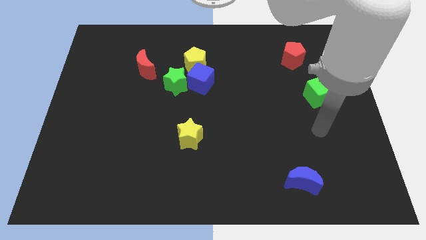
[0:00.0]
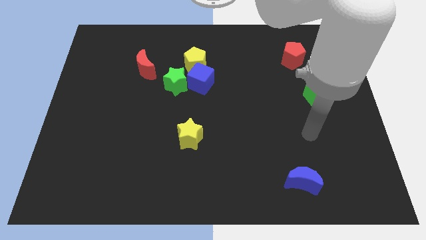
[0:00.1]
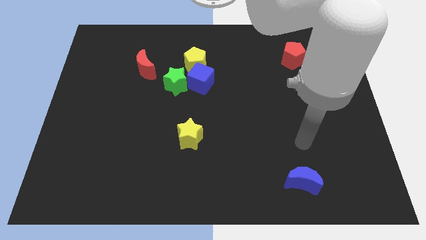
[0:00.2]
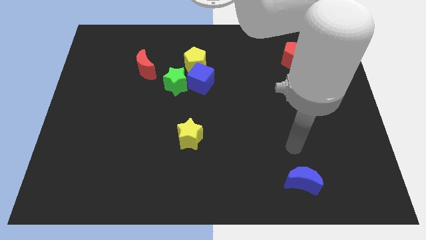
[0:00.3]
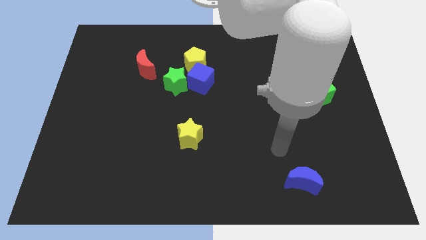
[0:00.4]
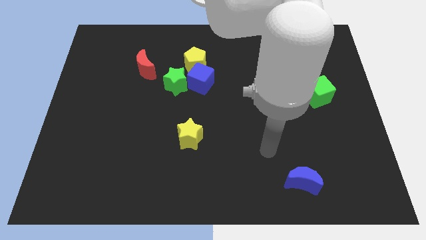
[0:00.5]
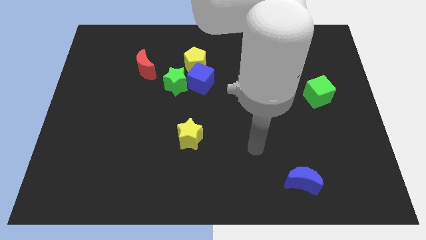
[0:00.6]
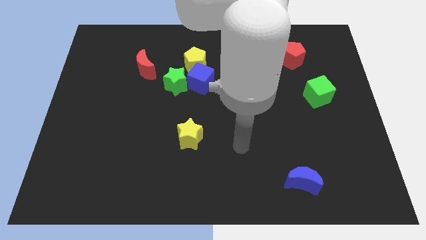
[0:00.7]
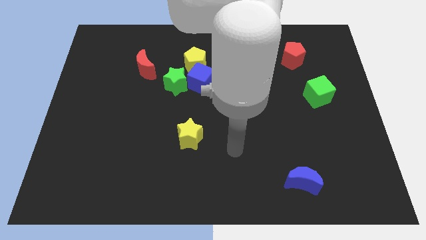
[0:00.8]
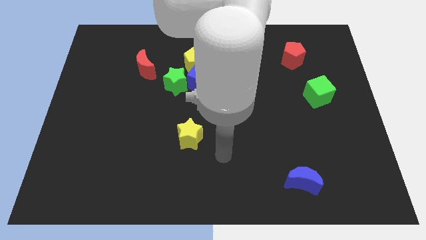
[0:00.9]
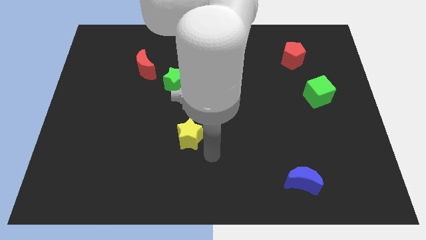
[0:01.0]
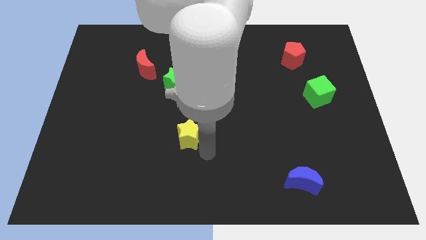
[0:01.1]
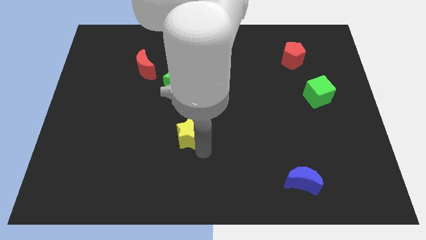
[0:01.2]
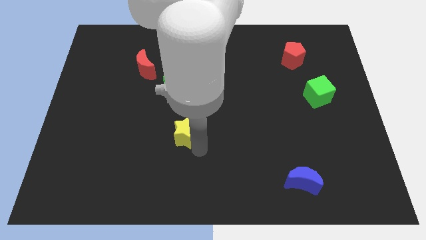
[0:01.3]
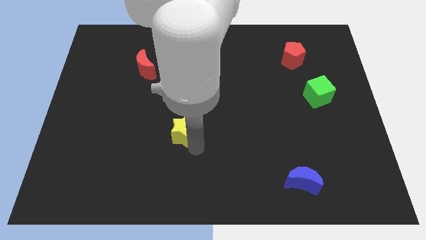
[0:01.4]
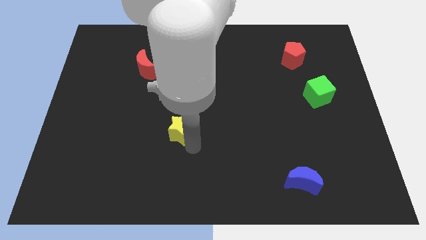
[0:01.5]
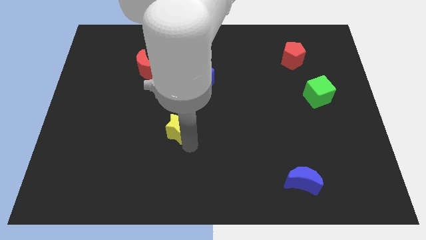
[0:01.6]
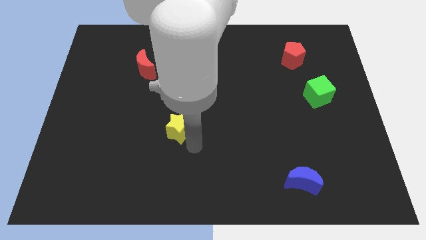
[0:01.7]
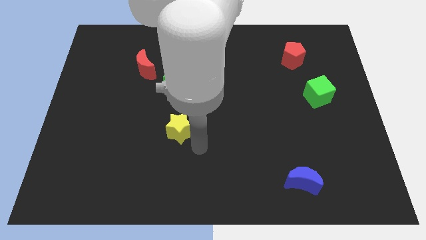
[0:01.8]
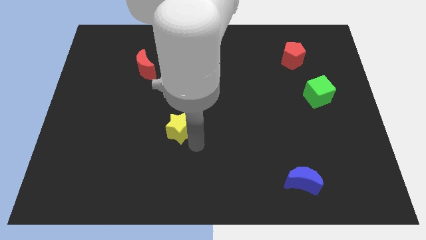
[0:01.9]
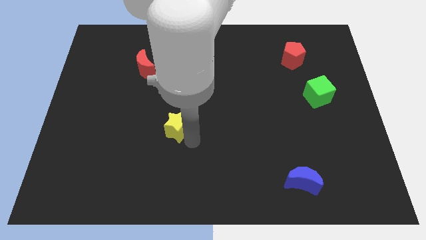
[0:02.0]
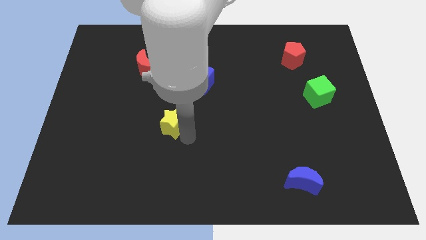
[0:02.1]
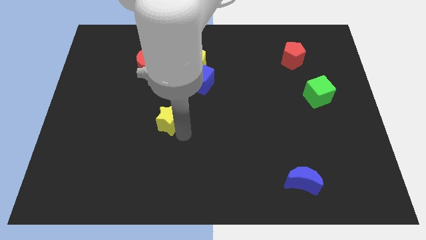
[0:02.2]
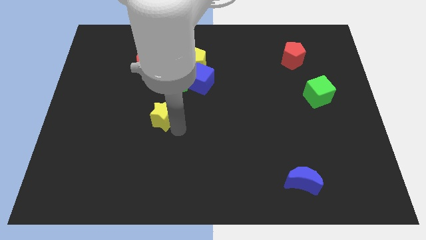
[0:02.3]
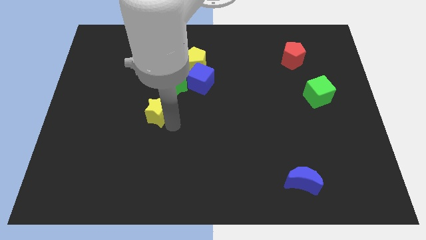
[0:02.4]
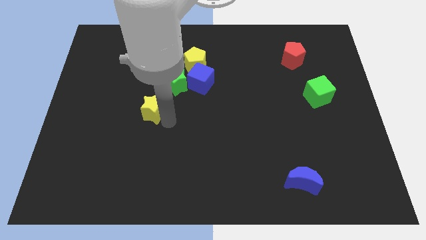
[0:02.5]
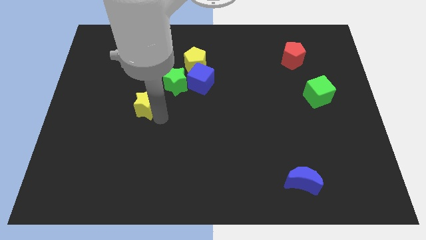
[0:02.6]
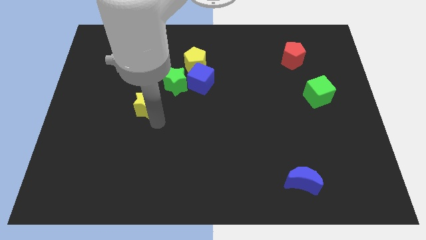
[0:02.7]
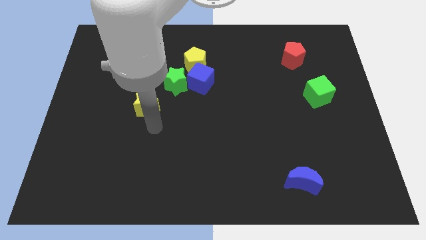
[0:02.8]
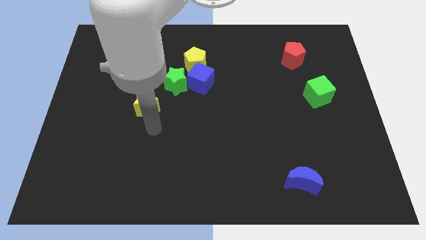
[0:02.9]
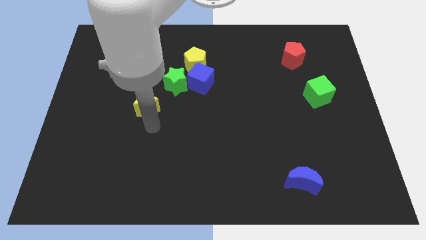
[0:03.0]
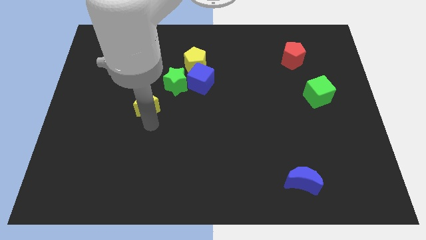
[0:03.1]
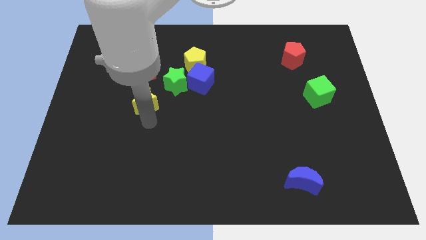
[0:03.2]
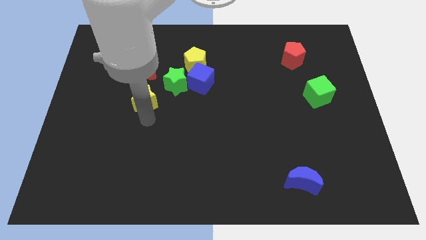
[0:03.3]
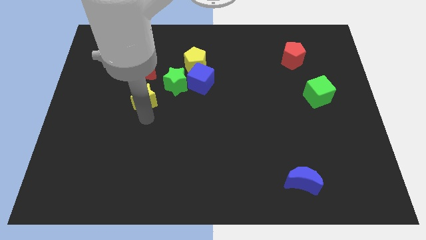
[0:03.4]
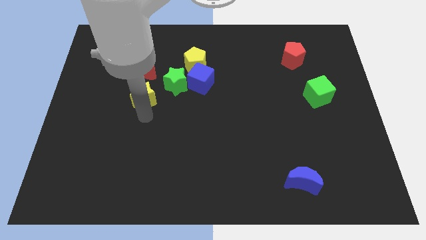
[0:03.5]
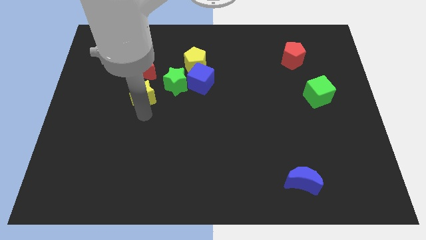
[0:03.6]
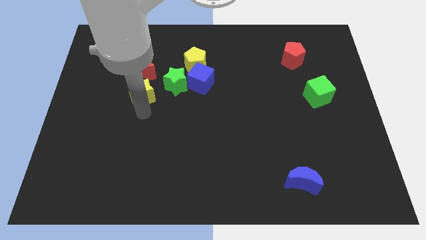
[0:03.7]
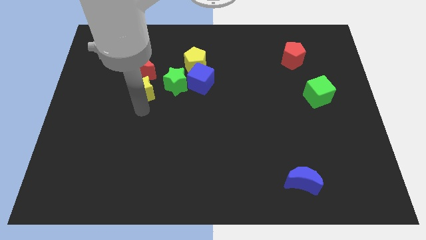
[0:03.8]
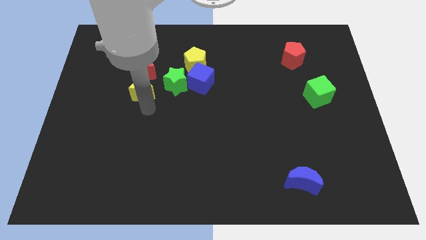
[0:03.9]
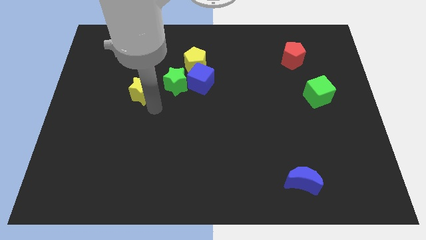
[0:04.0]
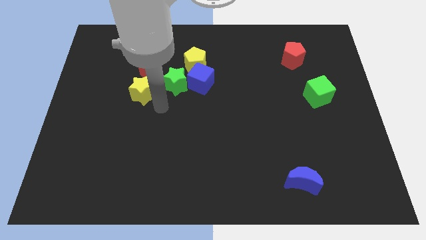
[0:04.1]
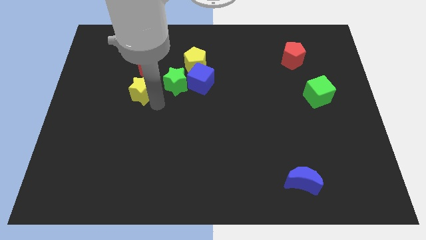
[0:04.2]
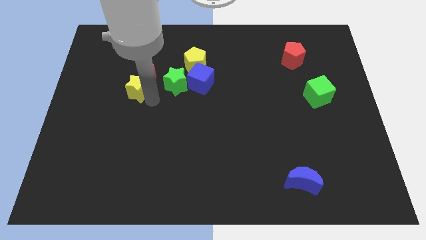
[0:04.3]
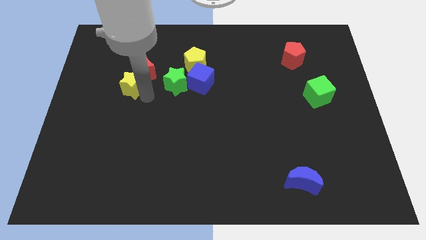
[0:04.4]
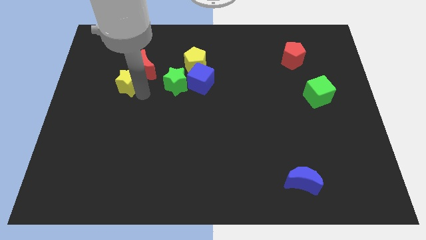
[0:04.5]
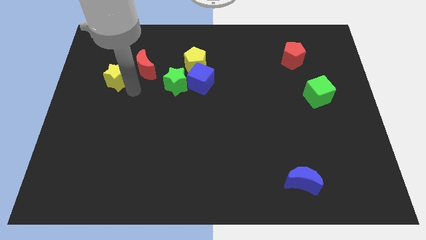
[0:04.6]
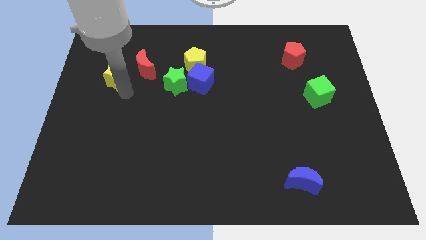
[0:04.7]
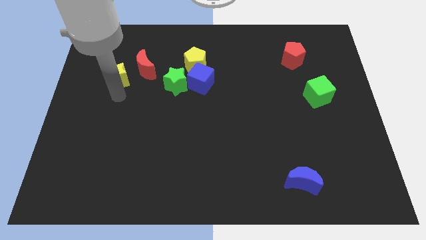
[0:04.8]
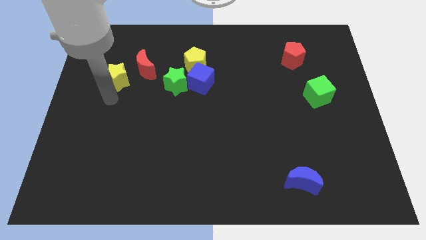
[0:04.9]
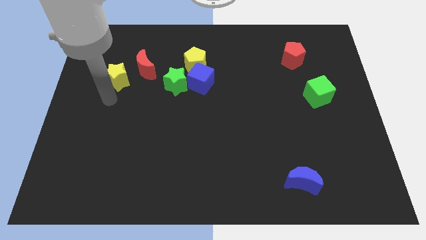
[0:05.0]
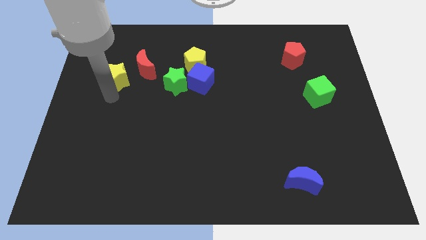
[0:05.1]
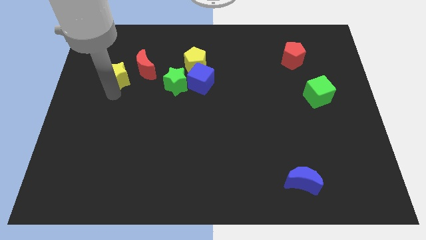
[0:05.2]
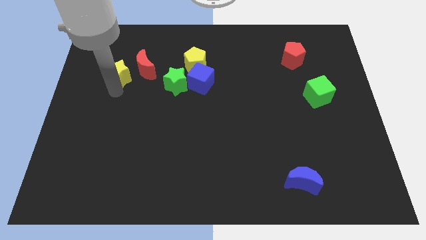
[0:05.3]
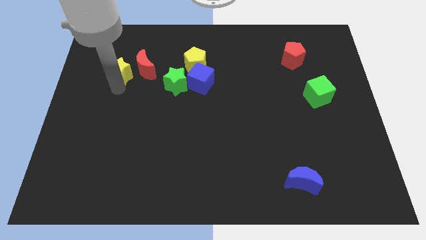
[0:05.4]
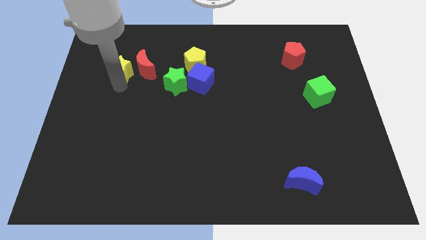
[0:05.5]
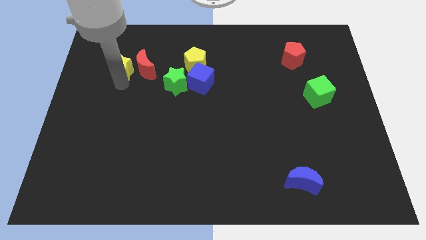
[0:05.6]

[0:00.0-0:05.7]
move the yellow star diagonally up and to the left of the red moon

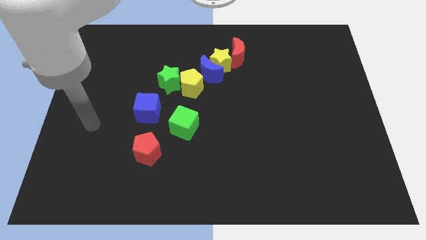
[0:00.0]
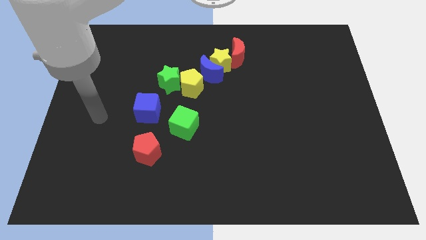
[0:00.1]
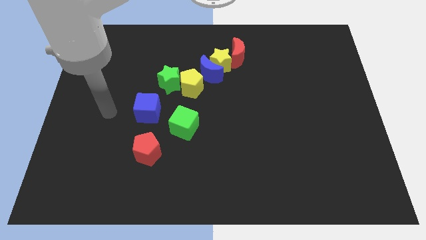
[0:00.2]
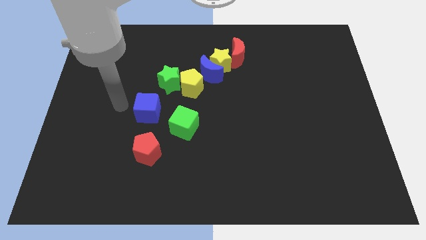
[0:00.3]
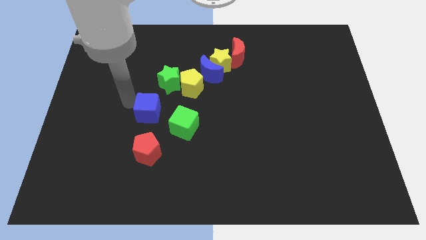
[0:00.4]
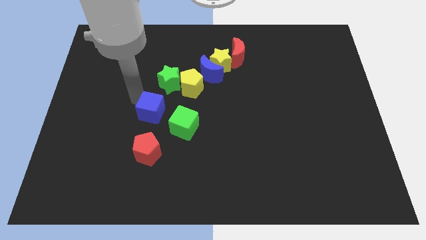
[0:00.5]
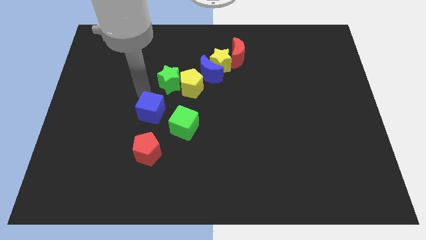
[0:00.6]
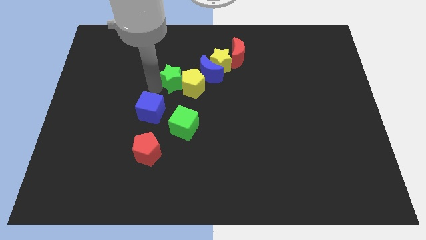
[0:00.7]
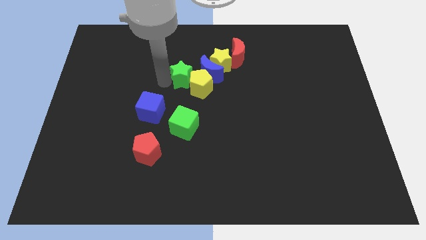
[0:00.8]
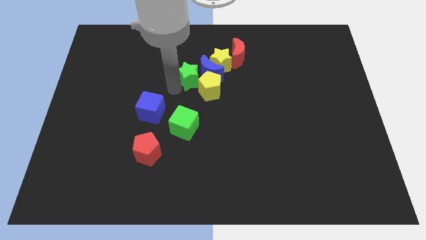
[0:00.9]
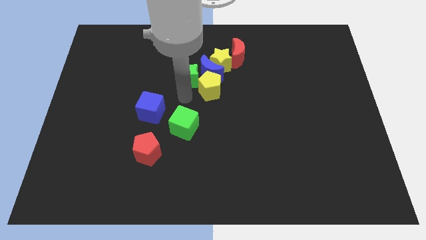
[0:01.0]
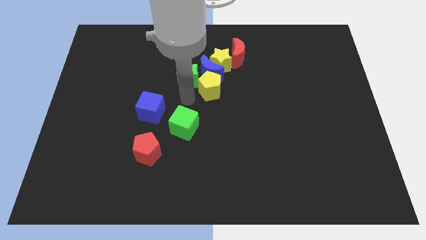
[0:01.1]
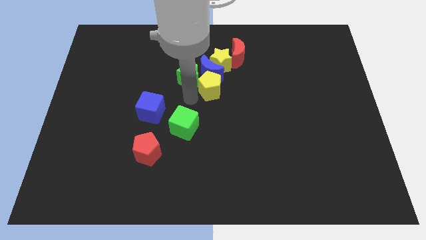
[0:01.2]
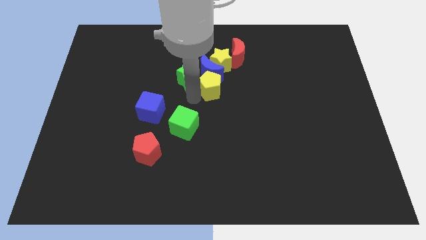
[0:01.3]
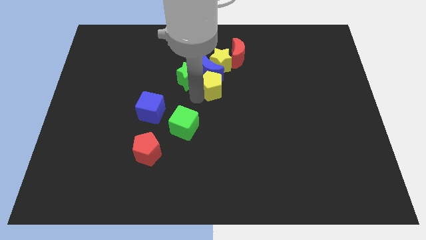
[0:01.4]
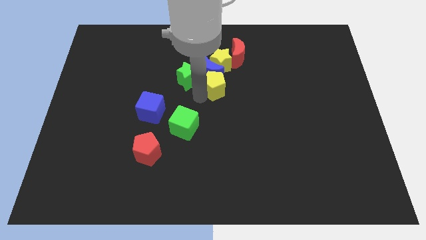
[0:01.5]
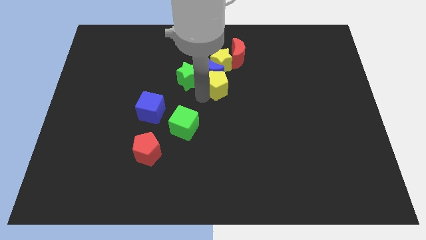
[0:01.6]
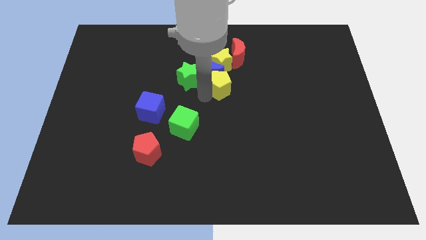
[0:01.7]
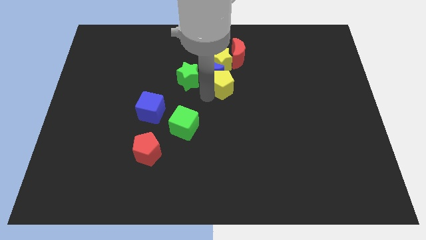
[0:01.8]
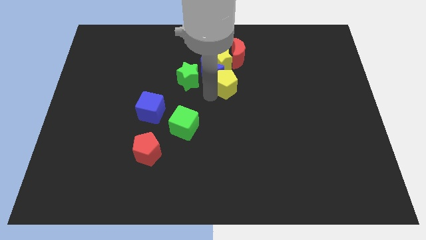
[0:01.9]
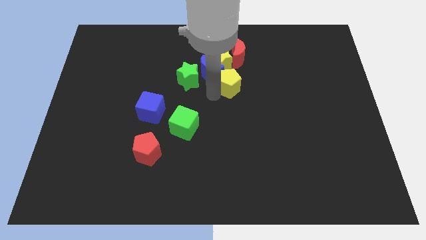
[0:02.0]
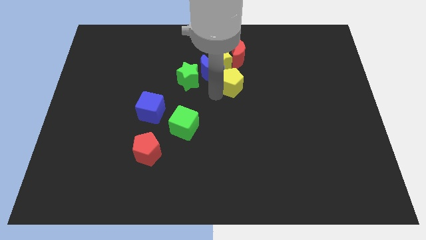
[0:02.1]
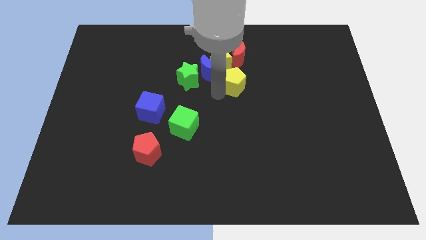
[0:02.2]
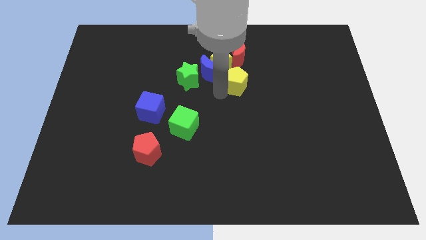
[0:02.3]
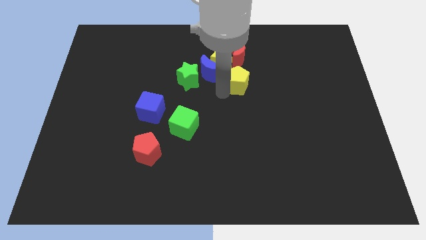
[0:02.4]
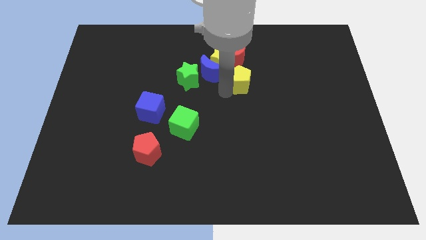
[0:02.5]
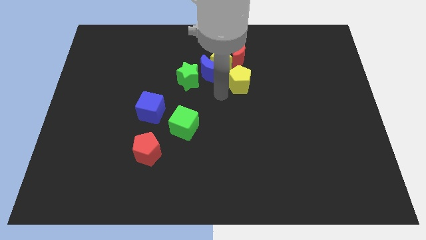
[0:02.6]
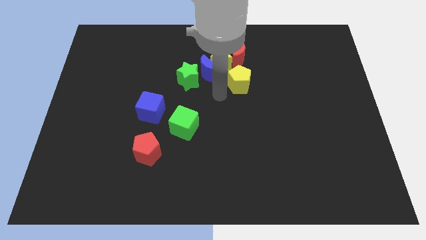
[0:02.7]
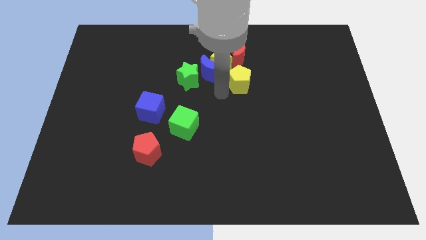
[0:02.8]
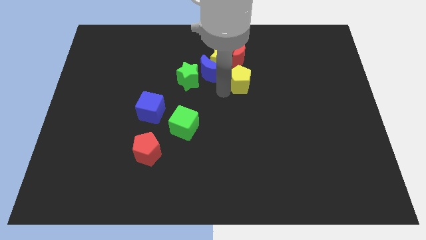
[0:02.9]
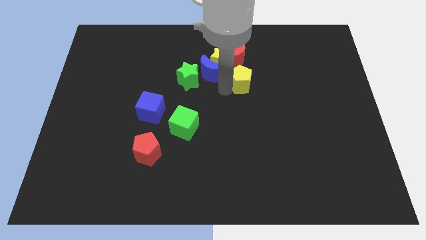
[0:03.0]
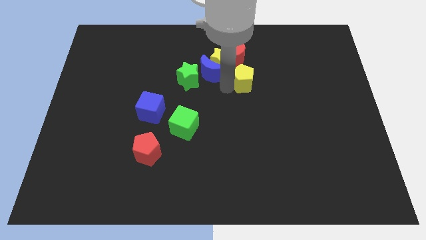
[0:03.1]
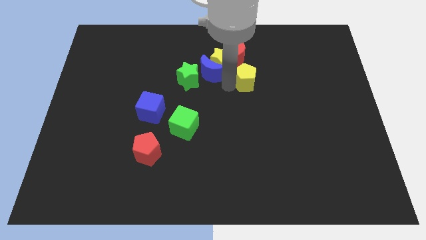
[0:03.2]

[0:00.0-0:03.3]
put the yellow pentagon to the bottom right of the red moon
